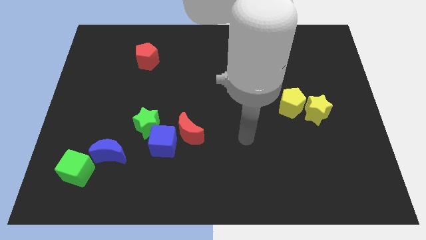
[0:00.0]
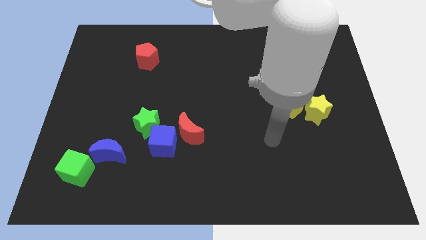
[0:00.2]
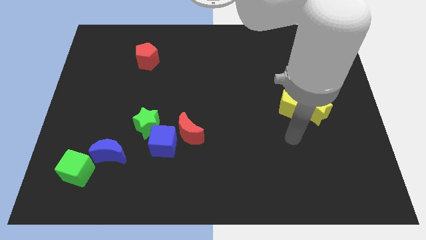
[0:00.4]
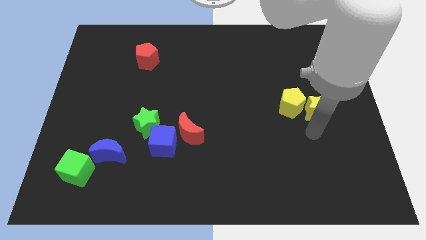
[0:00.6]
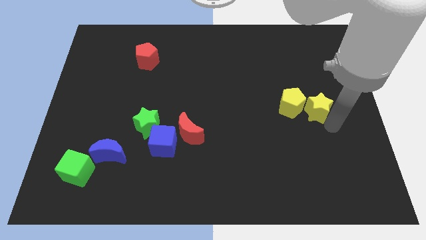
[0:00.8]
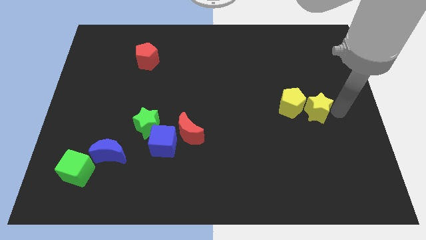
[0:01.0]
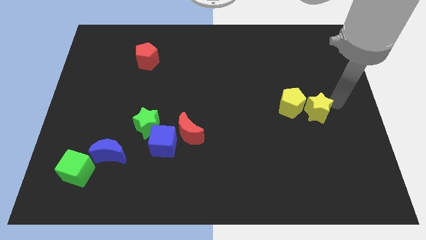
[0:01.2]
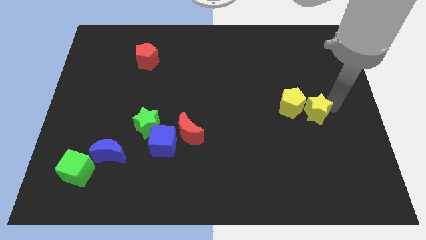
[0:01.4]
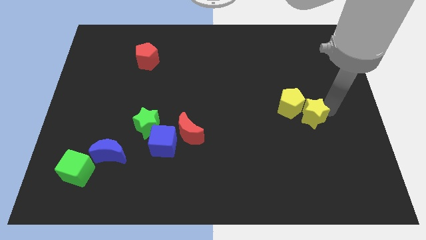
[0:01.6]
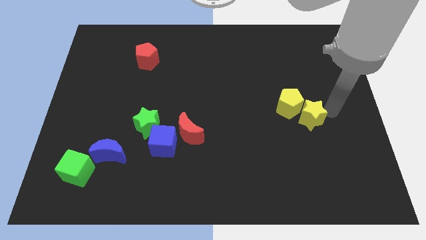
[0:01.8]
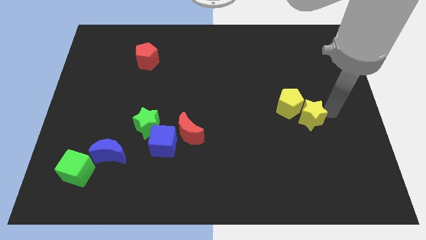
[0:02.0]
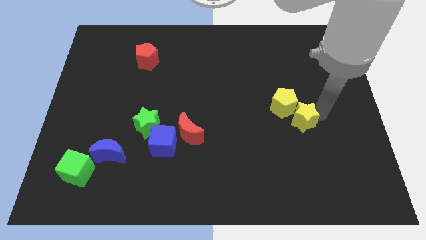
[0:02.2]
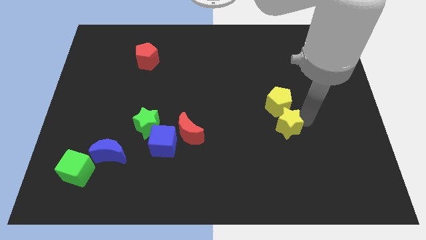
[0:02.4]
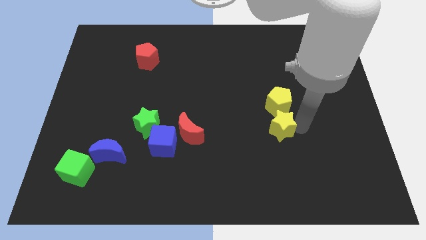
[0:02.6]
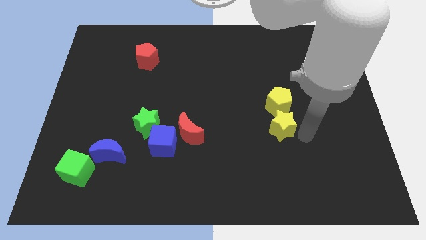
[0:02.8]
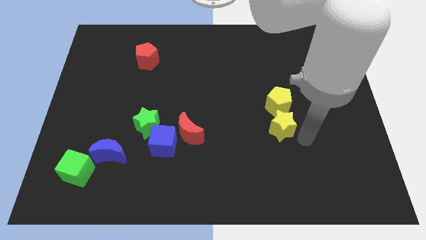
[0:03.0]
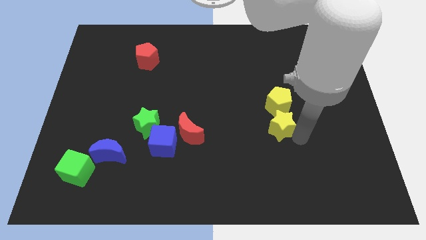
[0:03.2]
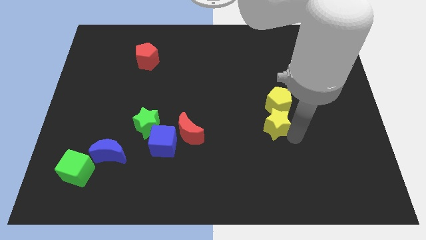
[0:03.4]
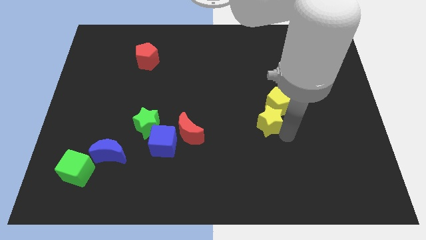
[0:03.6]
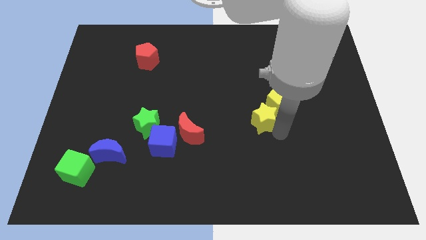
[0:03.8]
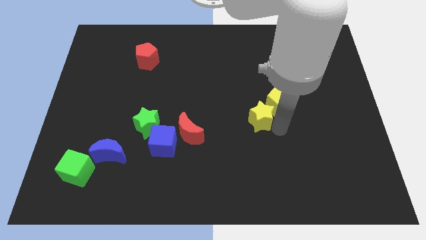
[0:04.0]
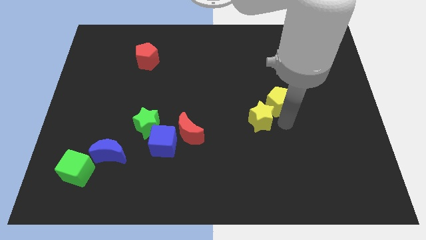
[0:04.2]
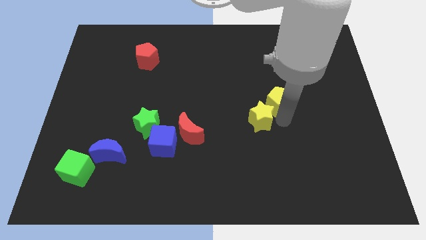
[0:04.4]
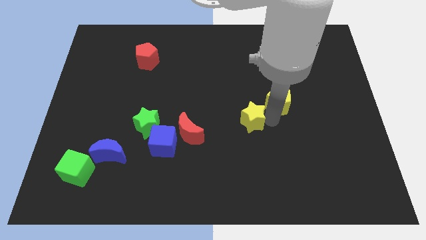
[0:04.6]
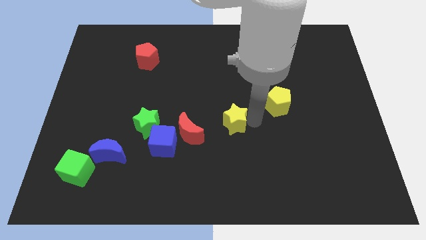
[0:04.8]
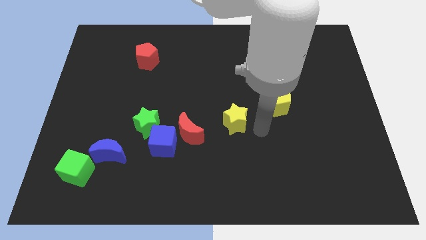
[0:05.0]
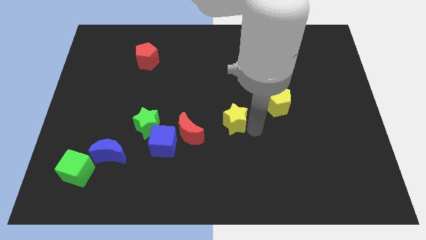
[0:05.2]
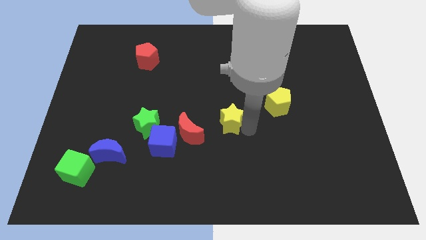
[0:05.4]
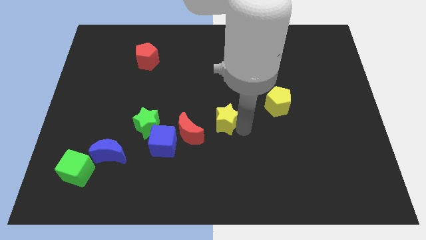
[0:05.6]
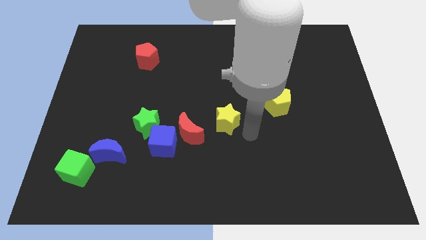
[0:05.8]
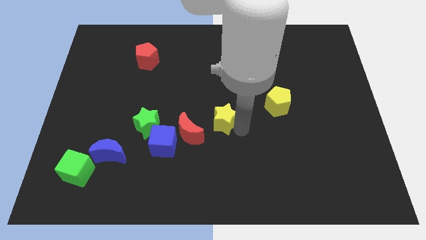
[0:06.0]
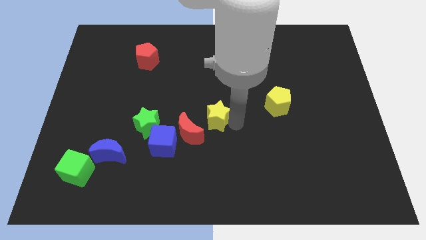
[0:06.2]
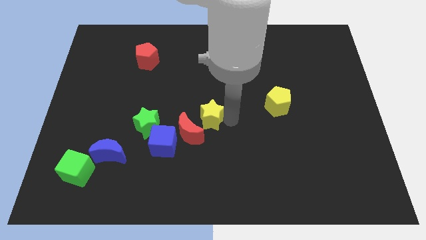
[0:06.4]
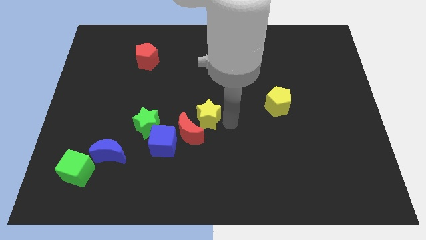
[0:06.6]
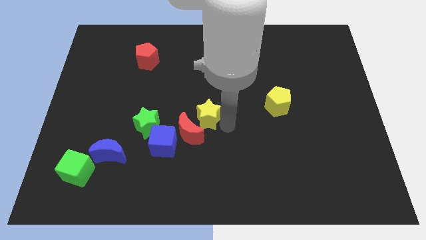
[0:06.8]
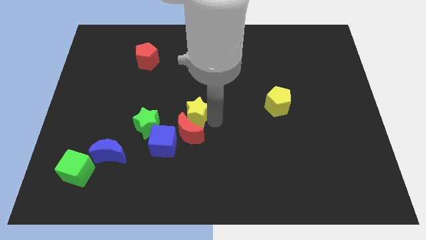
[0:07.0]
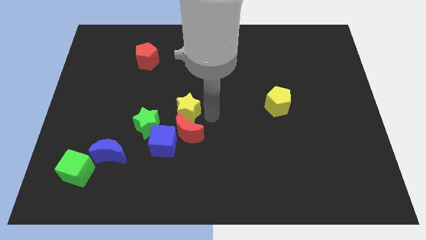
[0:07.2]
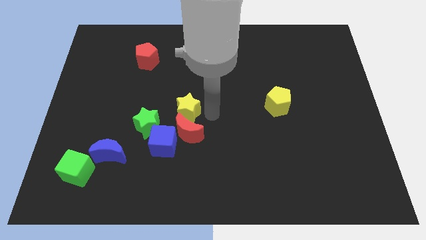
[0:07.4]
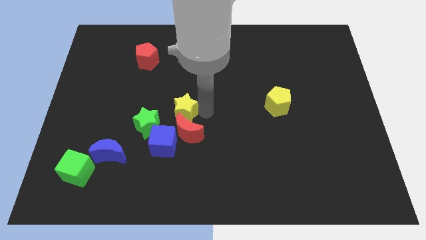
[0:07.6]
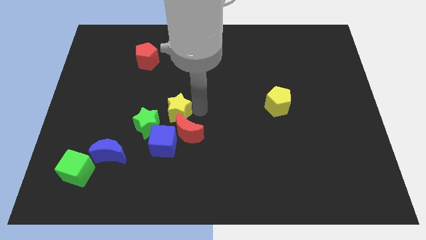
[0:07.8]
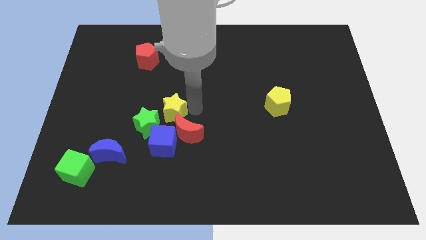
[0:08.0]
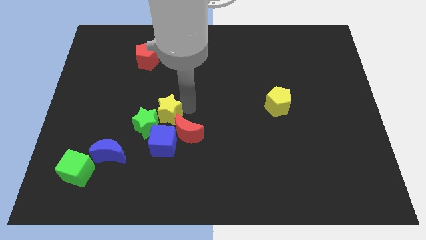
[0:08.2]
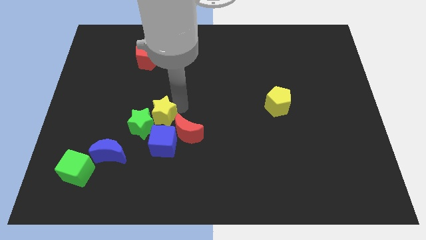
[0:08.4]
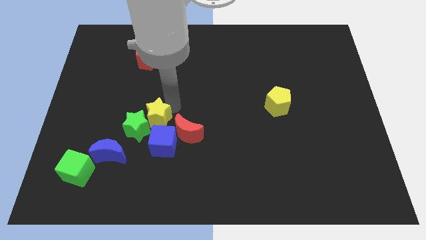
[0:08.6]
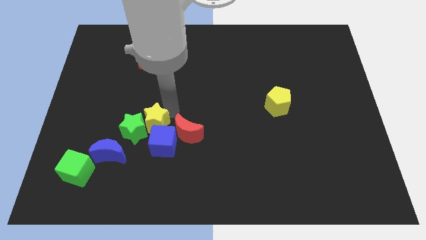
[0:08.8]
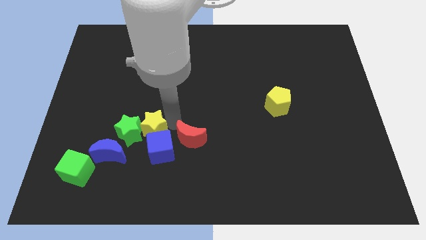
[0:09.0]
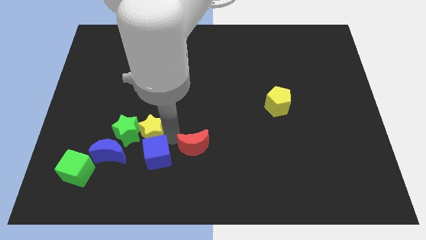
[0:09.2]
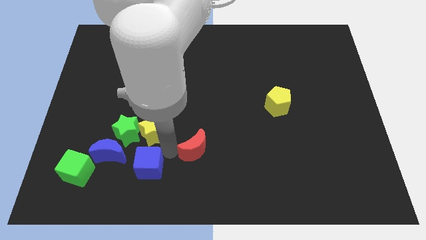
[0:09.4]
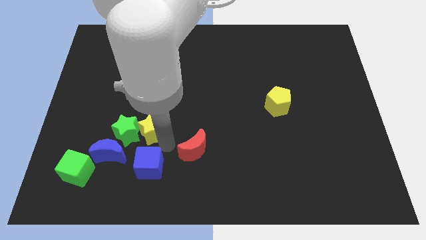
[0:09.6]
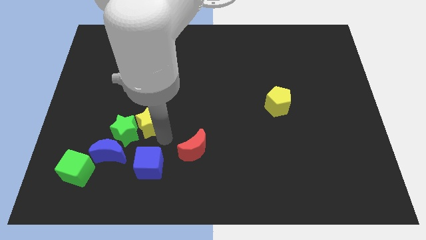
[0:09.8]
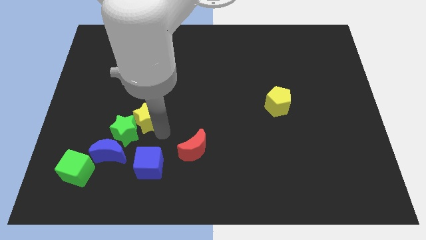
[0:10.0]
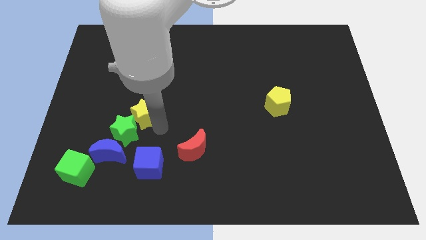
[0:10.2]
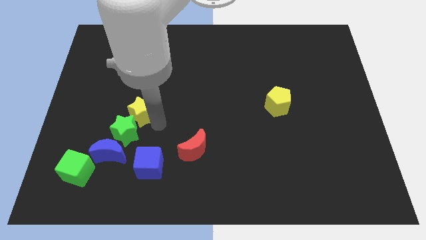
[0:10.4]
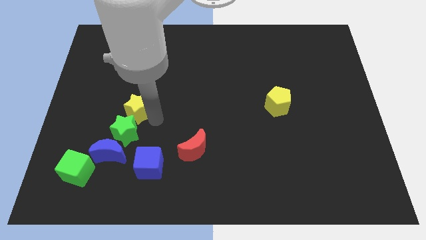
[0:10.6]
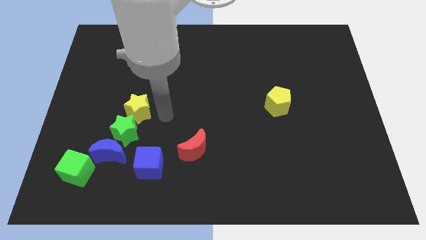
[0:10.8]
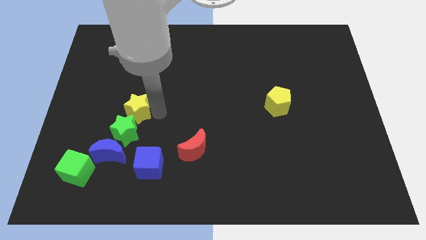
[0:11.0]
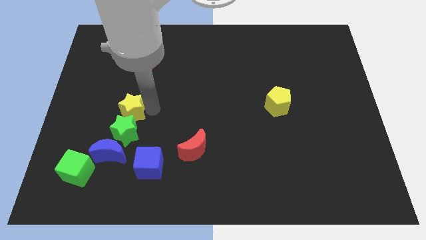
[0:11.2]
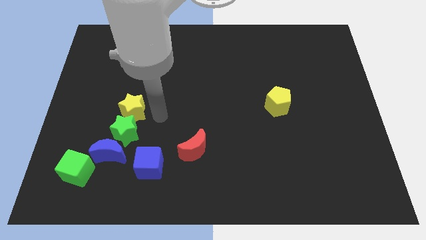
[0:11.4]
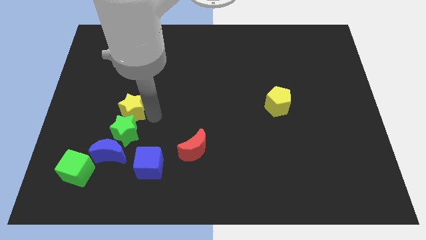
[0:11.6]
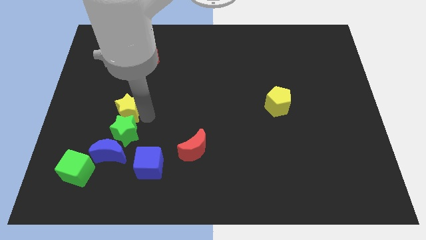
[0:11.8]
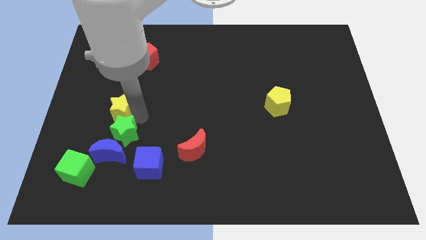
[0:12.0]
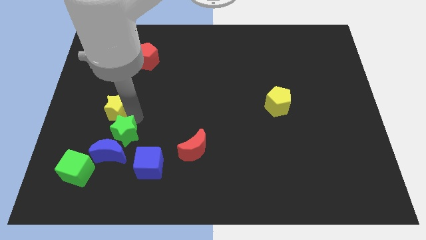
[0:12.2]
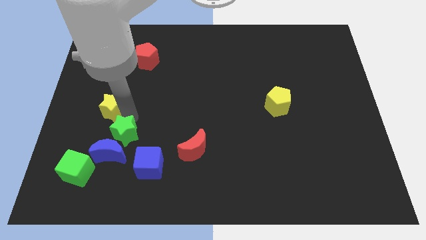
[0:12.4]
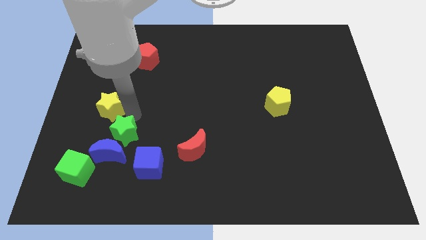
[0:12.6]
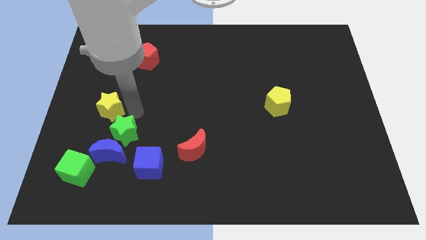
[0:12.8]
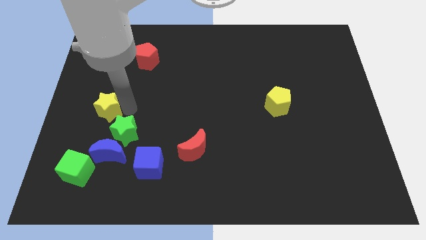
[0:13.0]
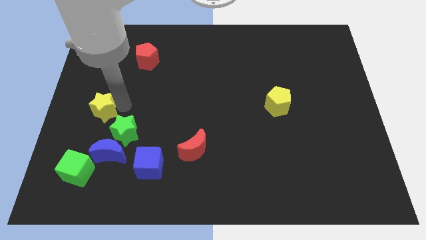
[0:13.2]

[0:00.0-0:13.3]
push the yellow star to the left side of the board
